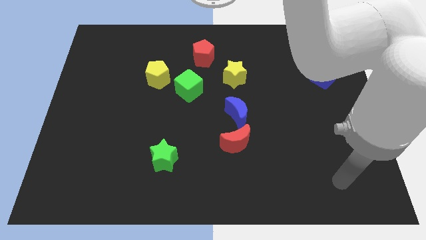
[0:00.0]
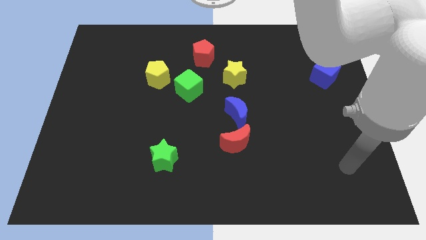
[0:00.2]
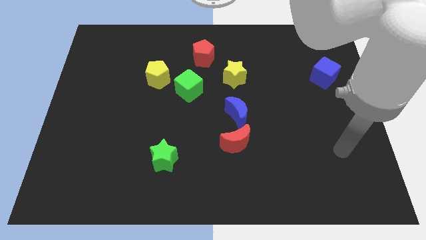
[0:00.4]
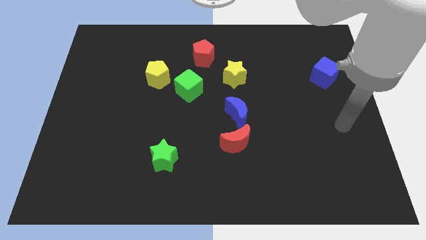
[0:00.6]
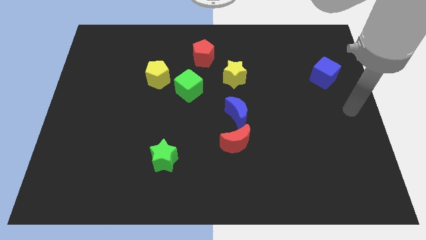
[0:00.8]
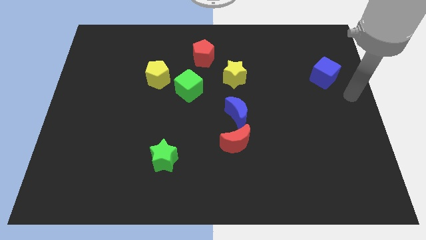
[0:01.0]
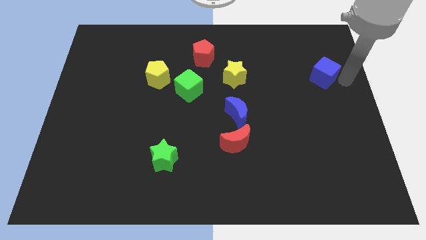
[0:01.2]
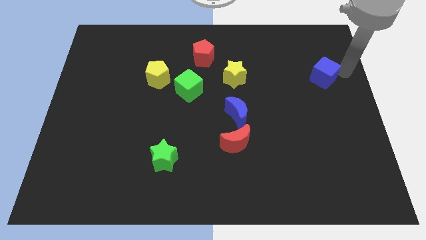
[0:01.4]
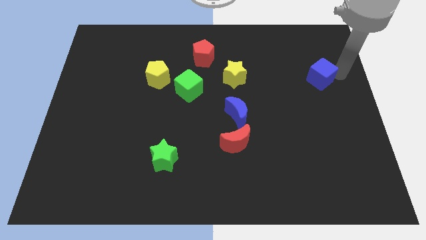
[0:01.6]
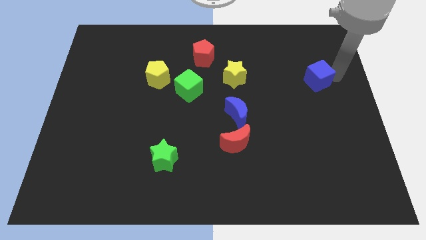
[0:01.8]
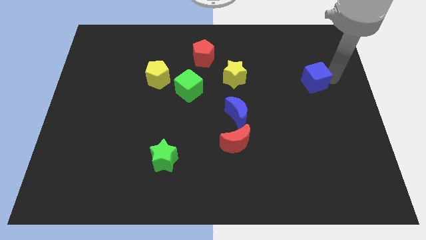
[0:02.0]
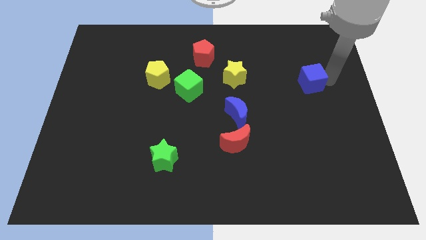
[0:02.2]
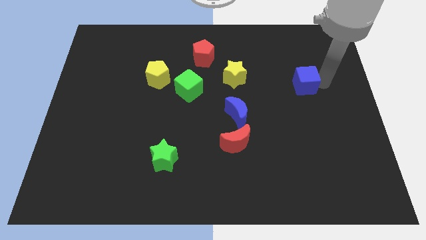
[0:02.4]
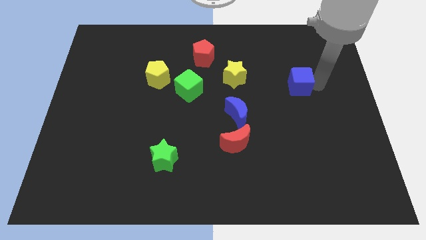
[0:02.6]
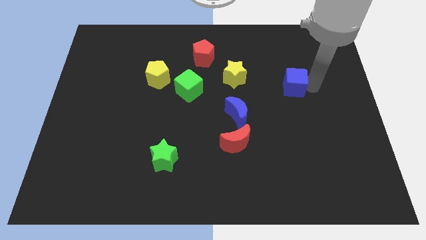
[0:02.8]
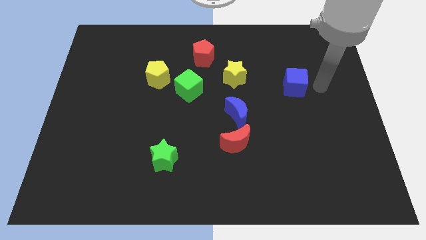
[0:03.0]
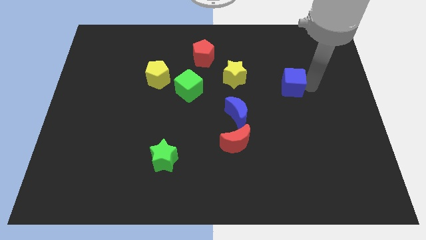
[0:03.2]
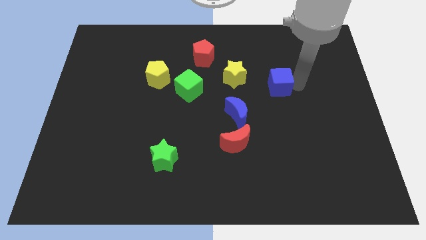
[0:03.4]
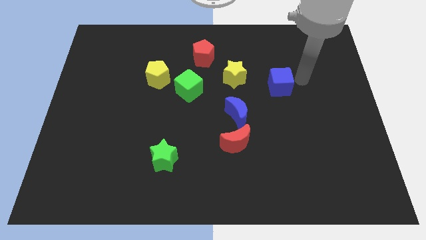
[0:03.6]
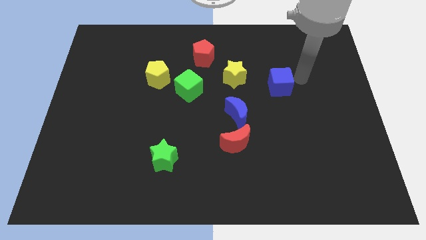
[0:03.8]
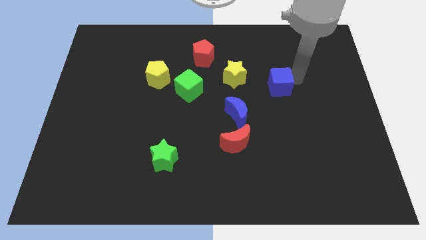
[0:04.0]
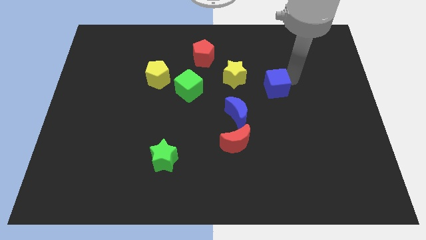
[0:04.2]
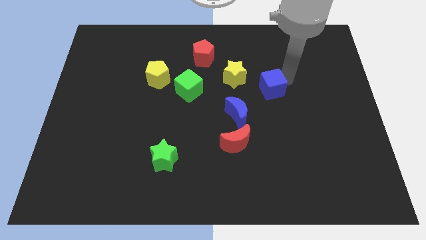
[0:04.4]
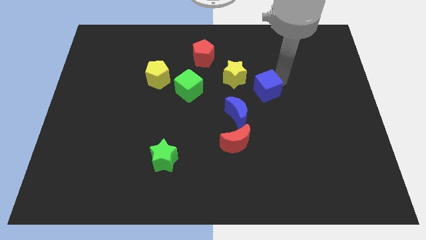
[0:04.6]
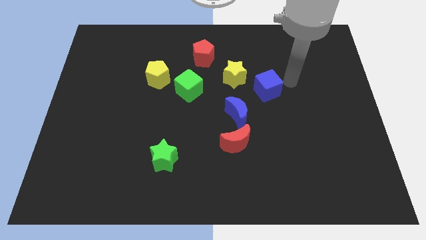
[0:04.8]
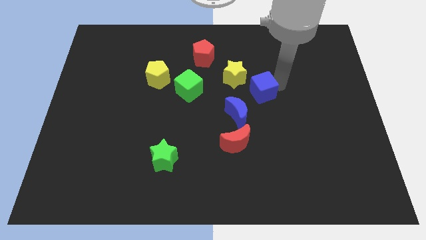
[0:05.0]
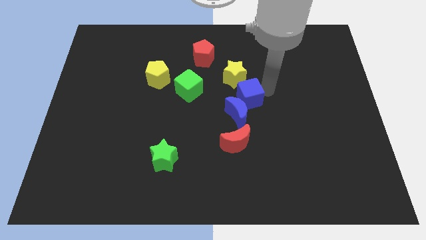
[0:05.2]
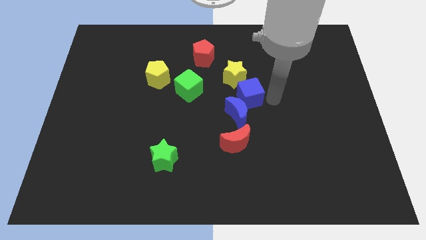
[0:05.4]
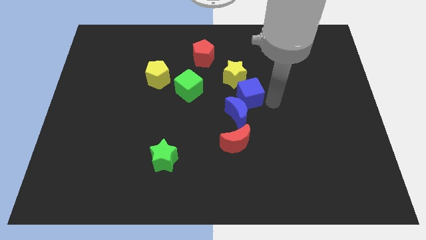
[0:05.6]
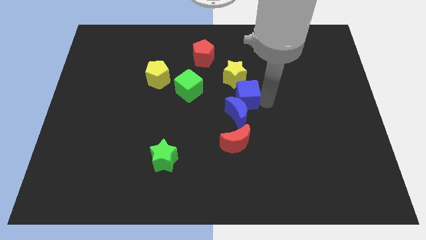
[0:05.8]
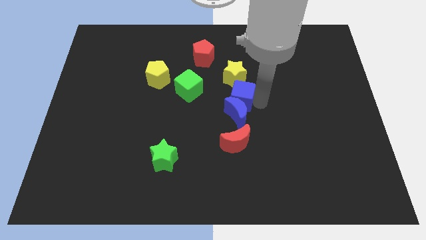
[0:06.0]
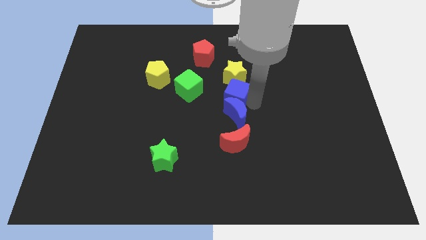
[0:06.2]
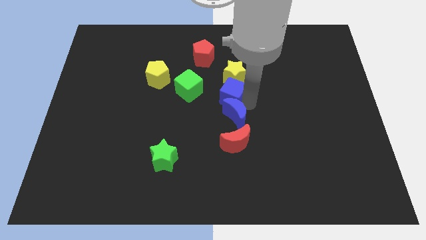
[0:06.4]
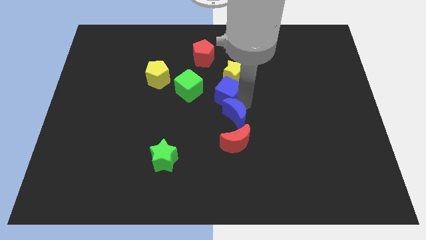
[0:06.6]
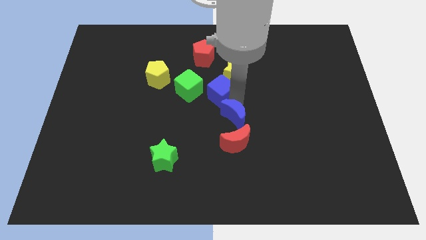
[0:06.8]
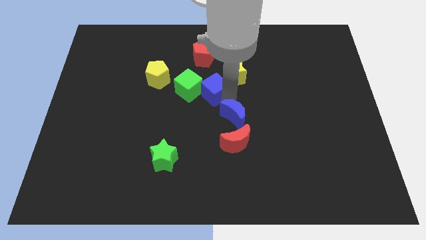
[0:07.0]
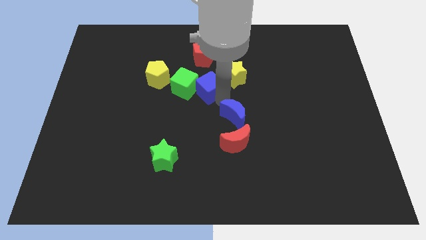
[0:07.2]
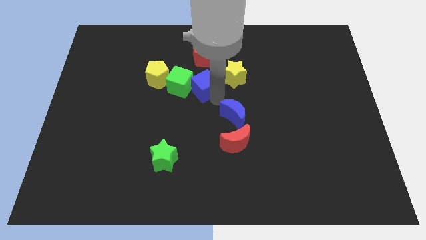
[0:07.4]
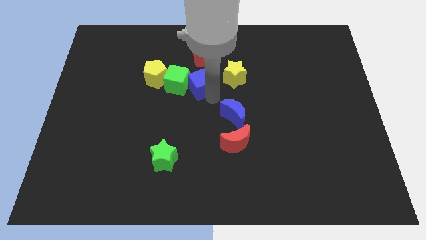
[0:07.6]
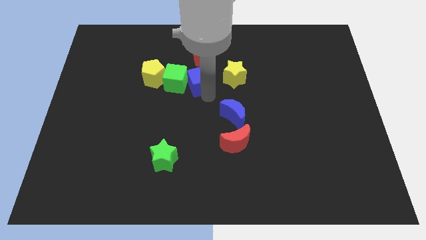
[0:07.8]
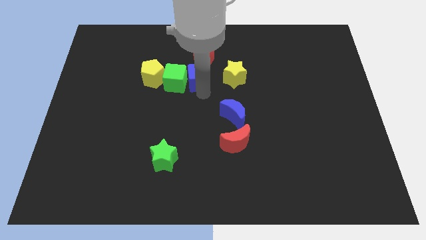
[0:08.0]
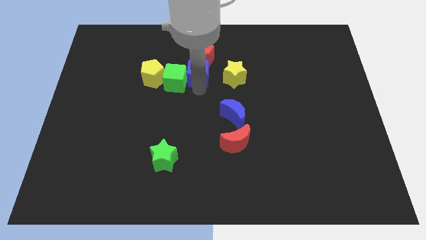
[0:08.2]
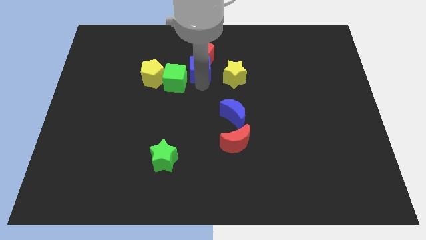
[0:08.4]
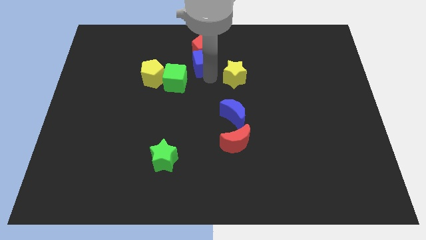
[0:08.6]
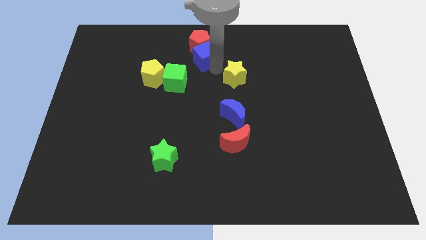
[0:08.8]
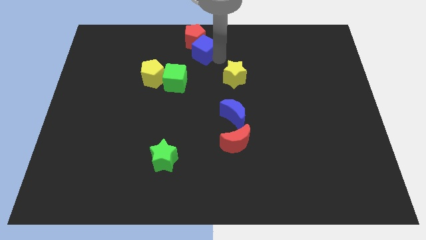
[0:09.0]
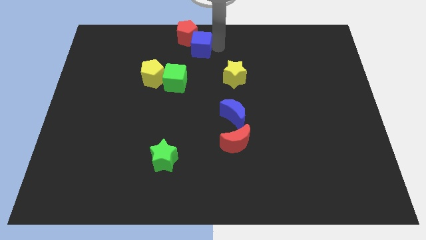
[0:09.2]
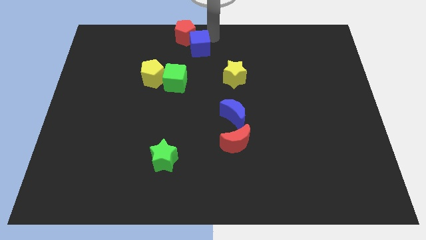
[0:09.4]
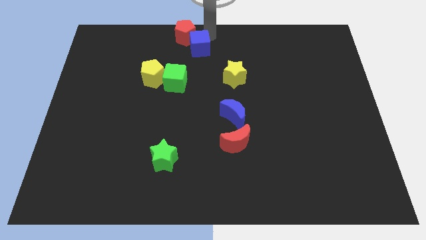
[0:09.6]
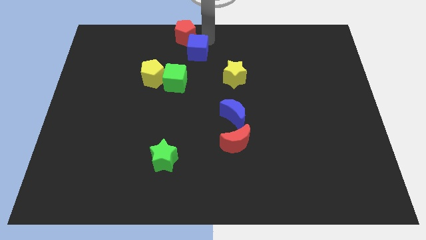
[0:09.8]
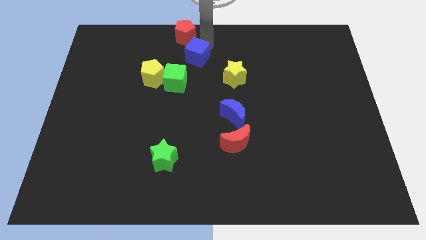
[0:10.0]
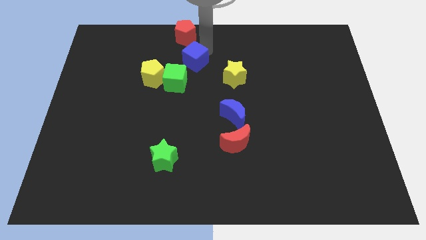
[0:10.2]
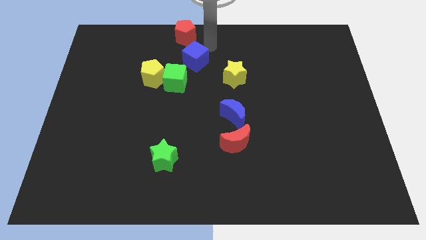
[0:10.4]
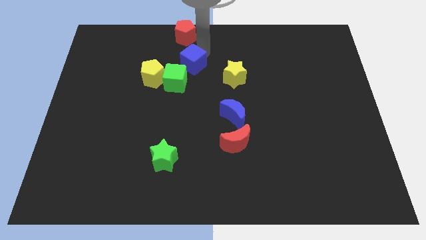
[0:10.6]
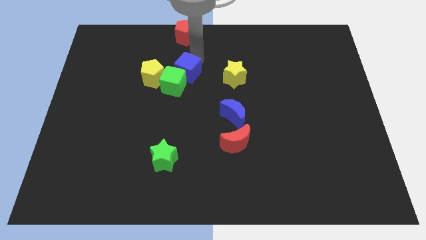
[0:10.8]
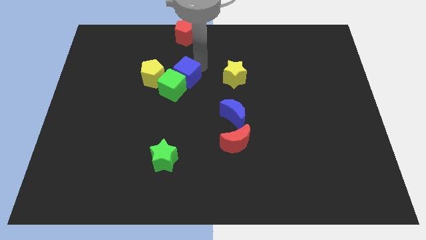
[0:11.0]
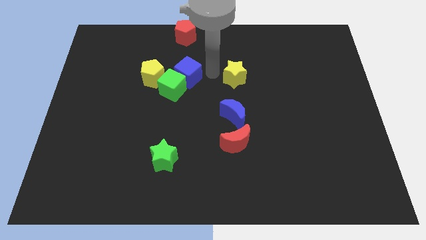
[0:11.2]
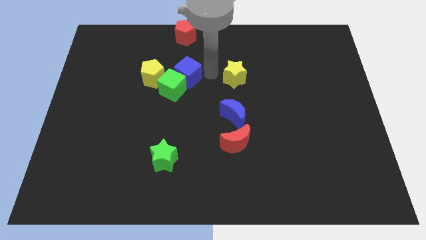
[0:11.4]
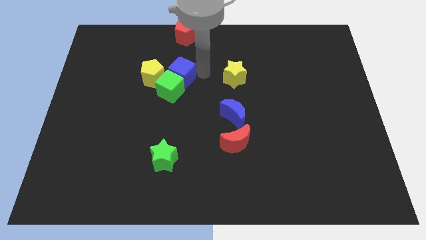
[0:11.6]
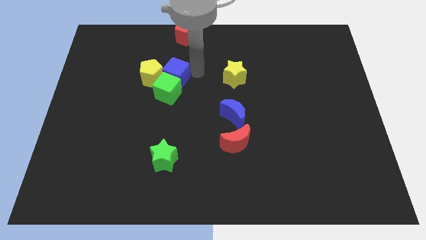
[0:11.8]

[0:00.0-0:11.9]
slide the blue cube to the yellow pentagon

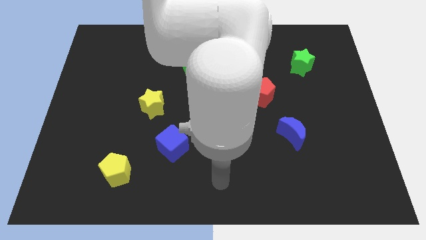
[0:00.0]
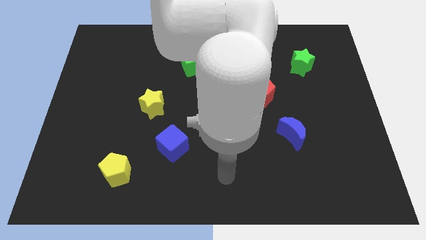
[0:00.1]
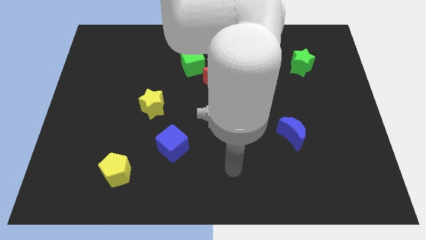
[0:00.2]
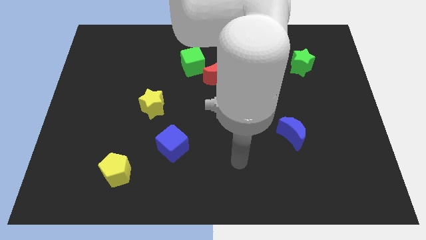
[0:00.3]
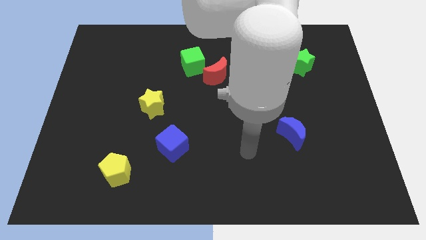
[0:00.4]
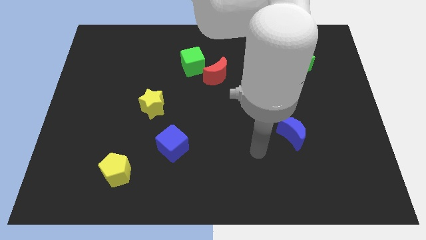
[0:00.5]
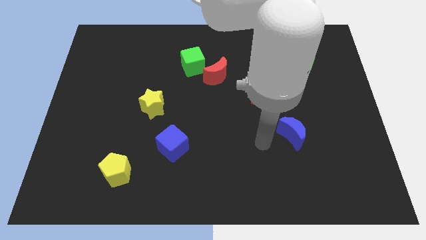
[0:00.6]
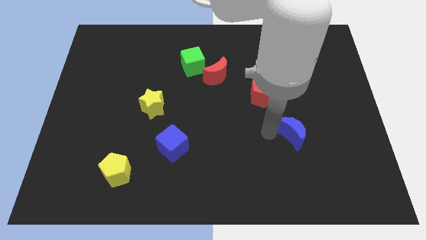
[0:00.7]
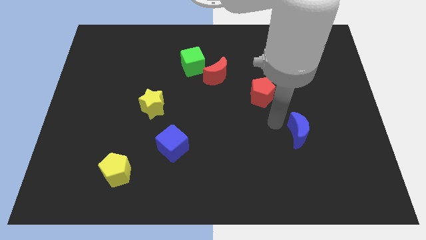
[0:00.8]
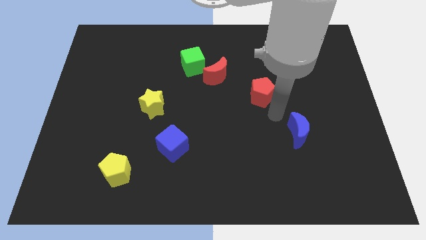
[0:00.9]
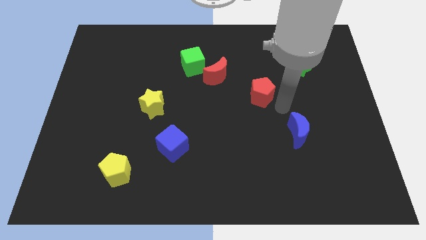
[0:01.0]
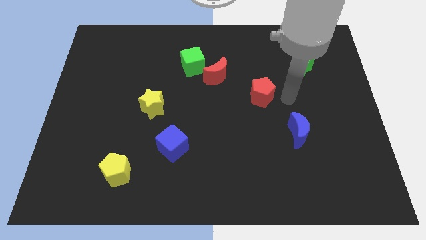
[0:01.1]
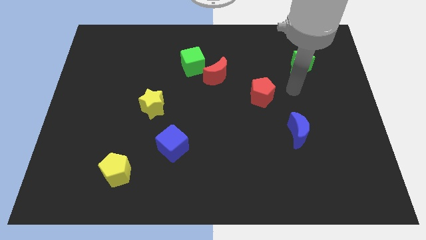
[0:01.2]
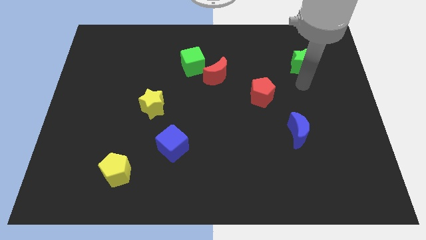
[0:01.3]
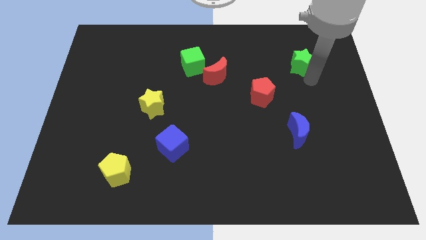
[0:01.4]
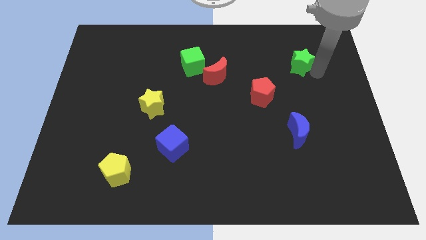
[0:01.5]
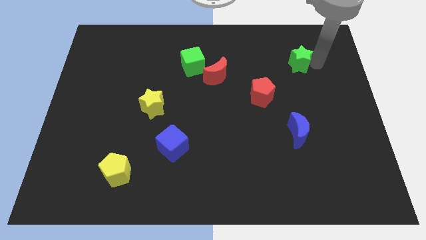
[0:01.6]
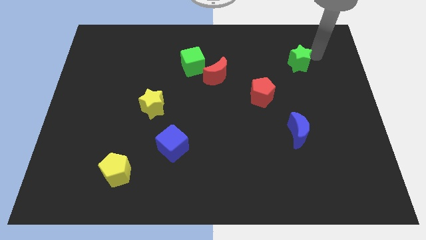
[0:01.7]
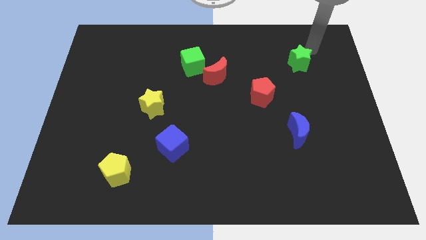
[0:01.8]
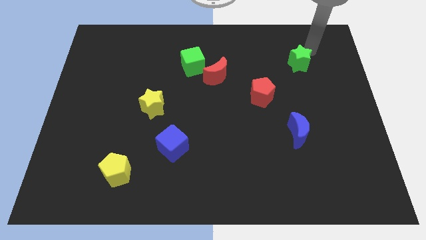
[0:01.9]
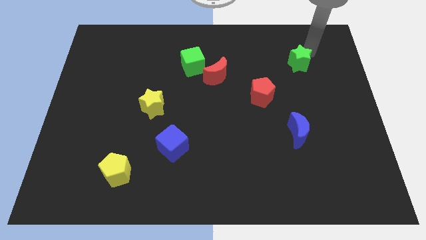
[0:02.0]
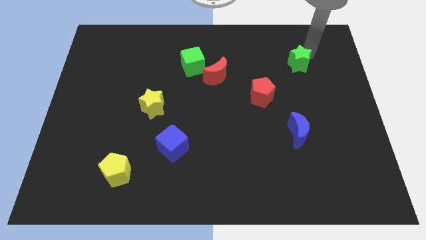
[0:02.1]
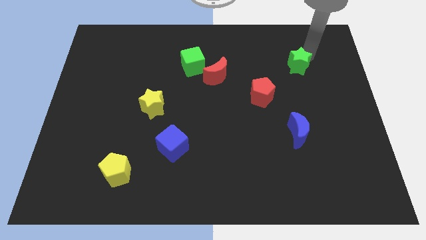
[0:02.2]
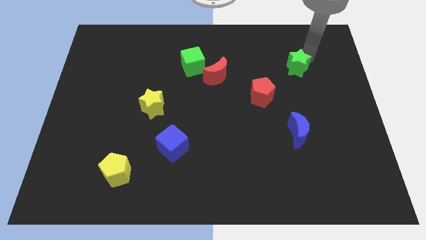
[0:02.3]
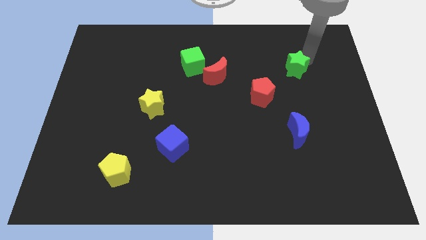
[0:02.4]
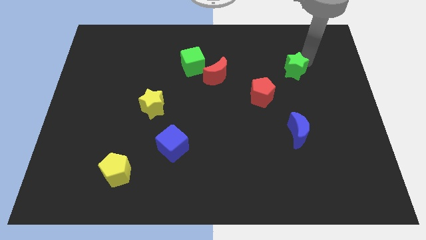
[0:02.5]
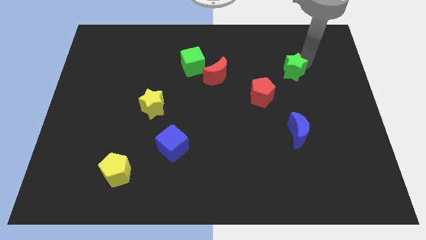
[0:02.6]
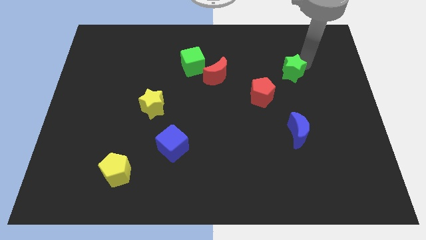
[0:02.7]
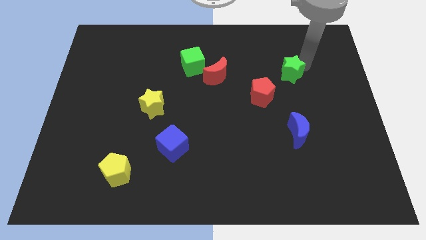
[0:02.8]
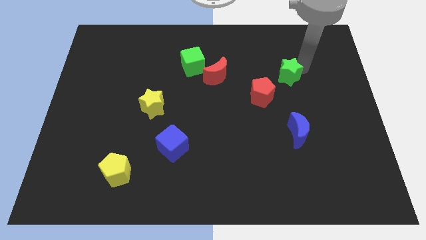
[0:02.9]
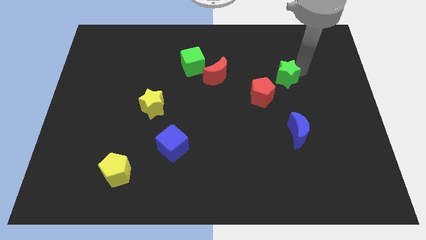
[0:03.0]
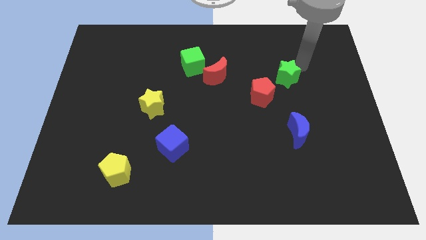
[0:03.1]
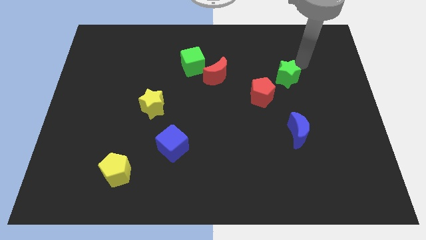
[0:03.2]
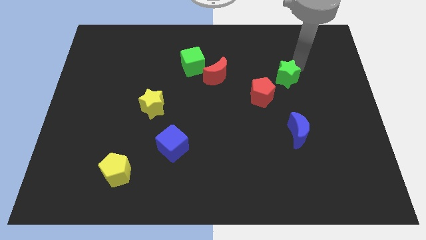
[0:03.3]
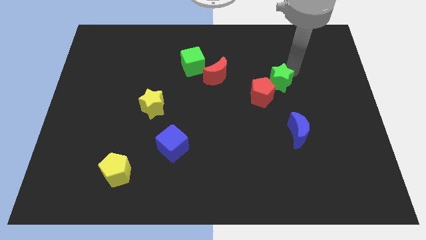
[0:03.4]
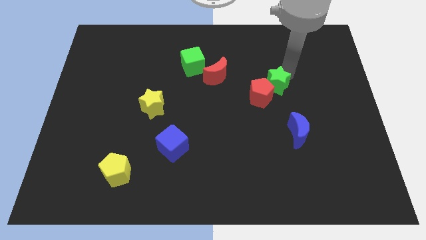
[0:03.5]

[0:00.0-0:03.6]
slide the green star next to the red pentagon
